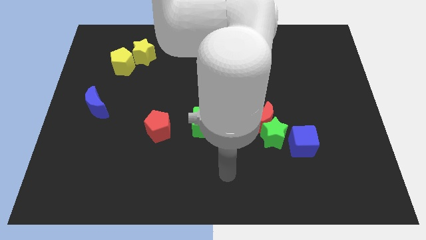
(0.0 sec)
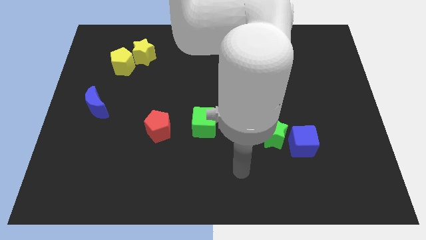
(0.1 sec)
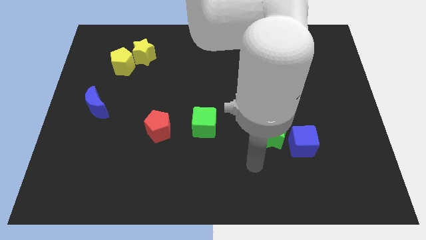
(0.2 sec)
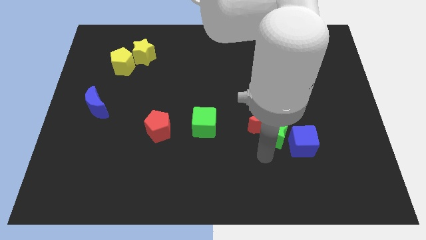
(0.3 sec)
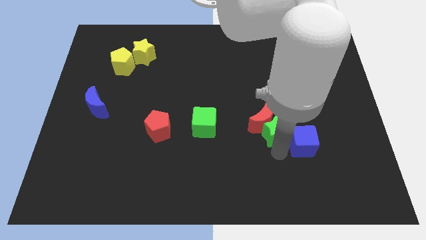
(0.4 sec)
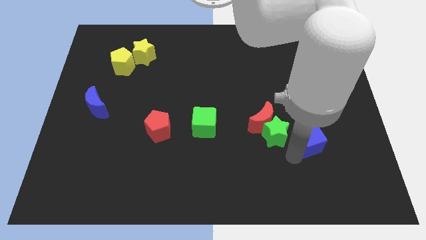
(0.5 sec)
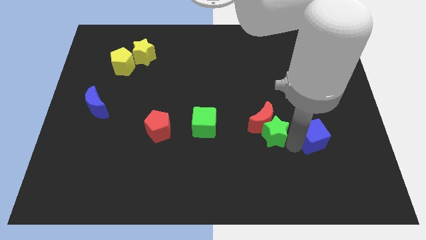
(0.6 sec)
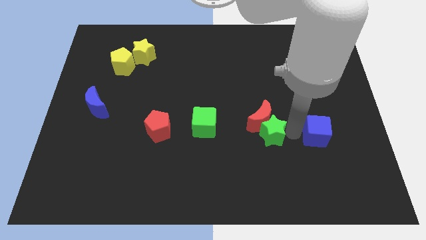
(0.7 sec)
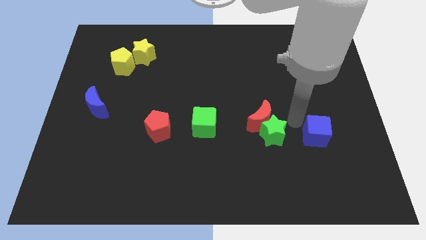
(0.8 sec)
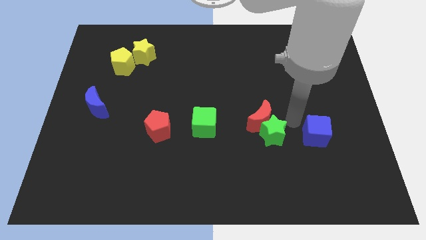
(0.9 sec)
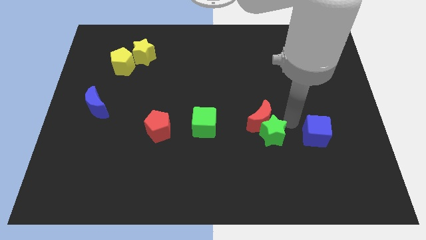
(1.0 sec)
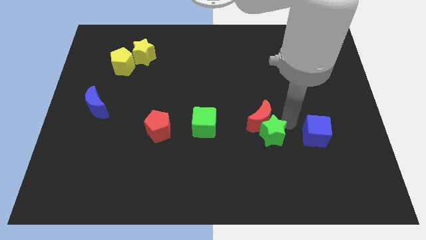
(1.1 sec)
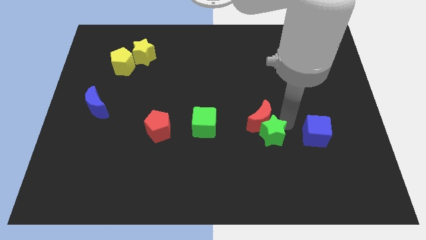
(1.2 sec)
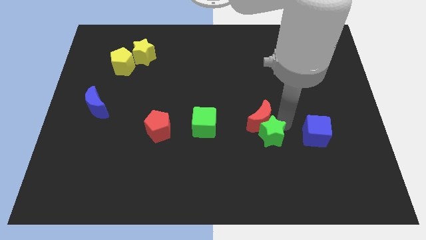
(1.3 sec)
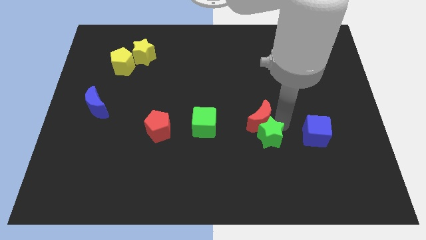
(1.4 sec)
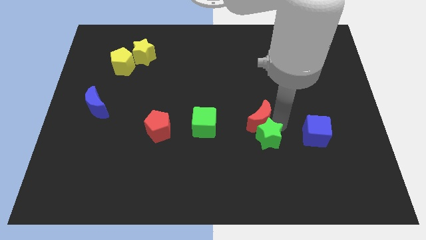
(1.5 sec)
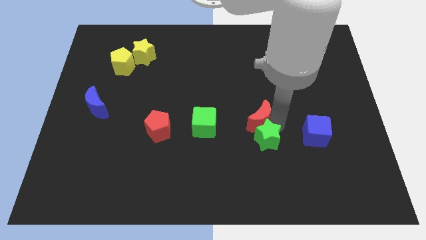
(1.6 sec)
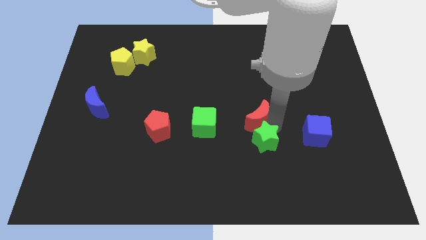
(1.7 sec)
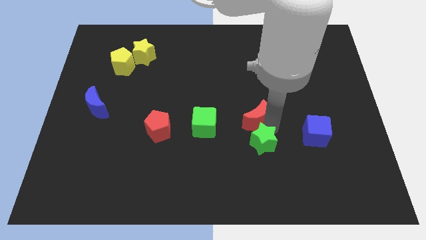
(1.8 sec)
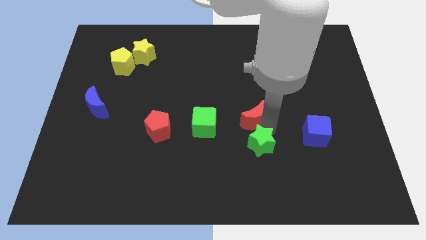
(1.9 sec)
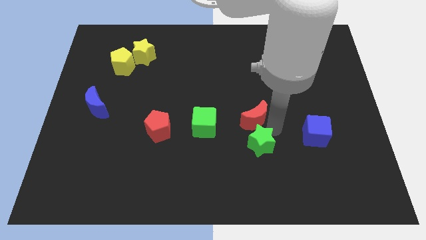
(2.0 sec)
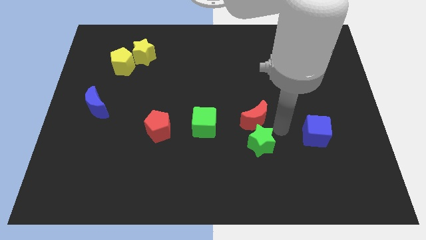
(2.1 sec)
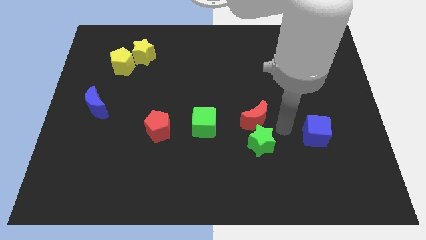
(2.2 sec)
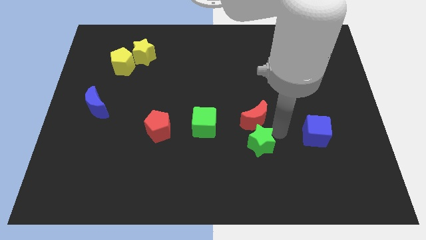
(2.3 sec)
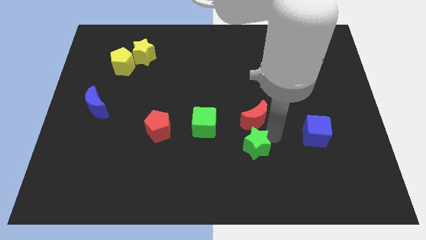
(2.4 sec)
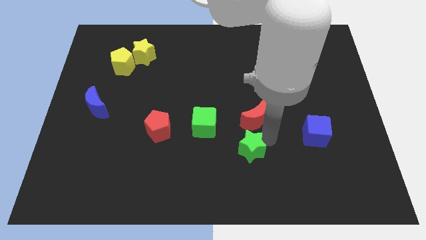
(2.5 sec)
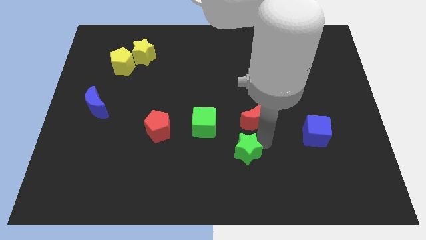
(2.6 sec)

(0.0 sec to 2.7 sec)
move the green star away from the red moon and blue cube

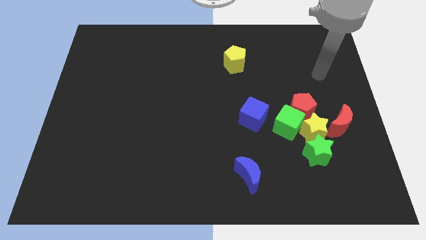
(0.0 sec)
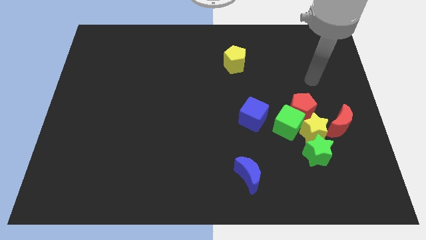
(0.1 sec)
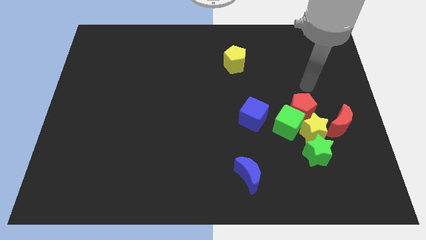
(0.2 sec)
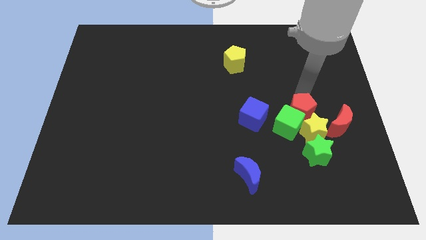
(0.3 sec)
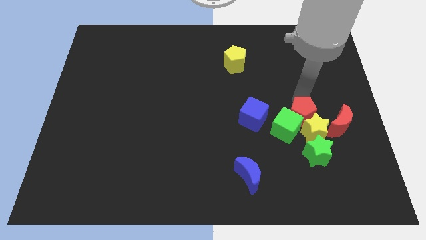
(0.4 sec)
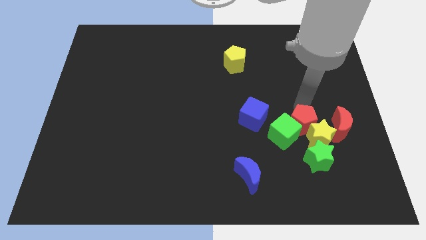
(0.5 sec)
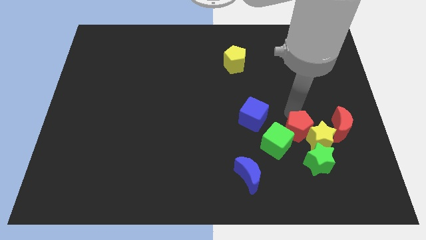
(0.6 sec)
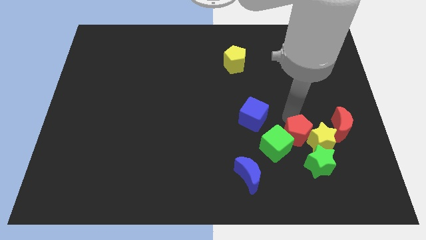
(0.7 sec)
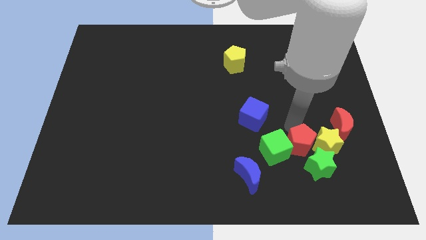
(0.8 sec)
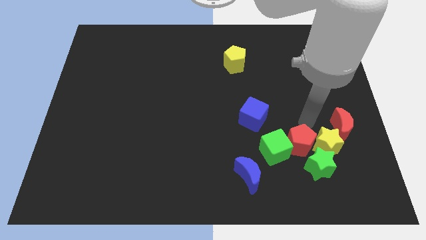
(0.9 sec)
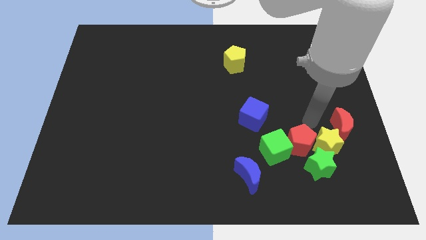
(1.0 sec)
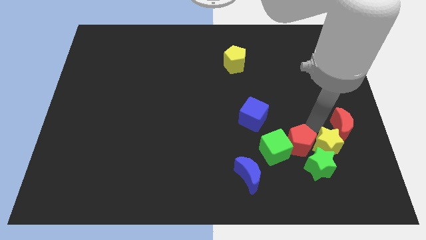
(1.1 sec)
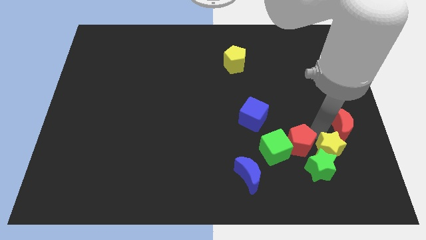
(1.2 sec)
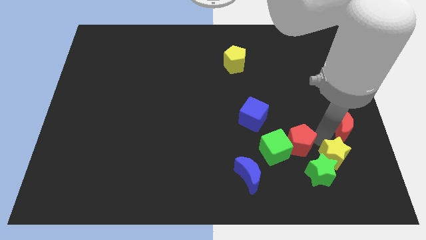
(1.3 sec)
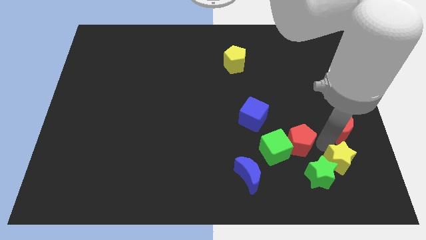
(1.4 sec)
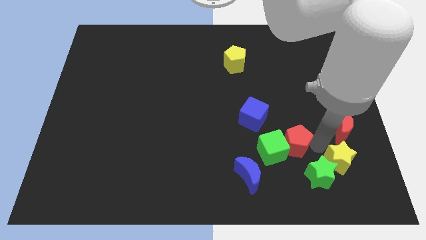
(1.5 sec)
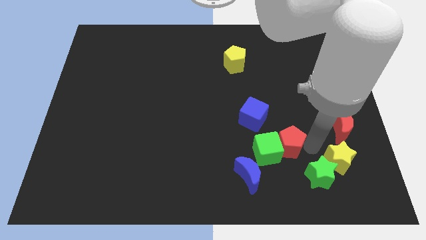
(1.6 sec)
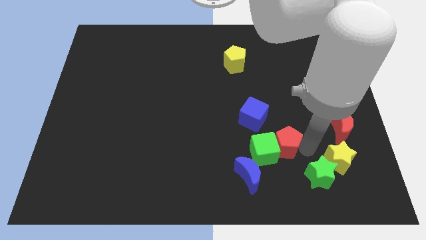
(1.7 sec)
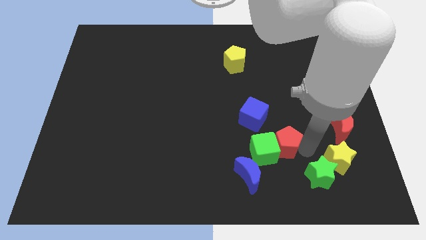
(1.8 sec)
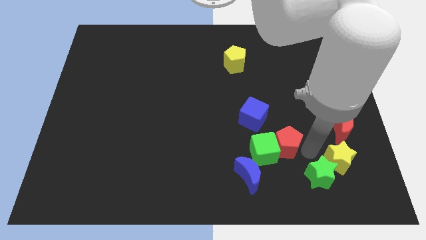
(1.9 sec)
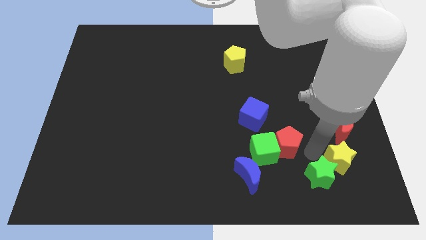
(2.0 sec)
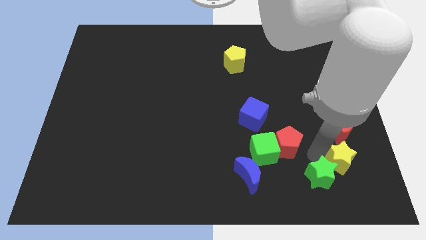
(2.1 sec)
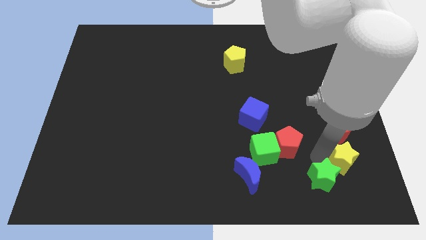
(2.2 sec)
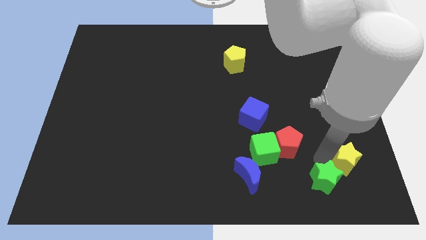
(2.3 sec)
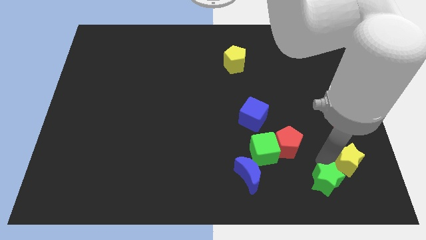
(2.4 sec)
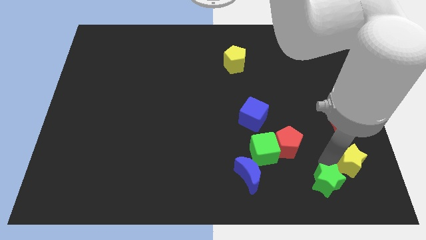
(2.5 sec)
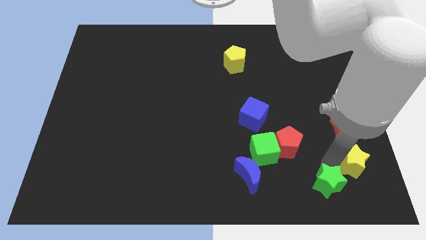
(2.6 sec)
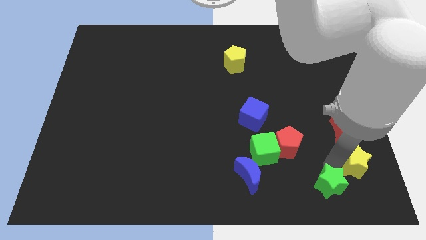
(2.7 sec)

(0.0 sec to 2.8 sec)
pull the yellow star apart from the group

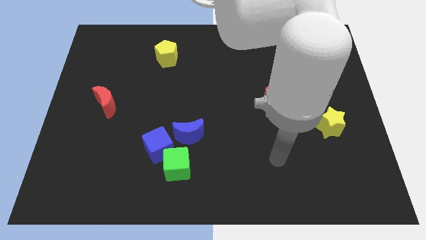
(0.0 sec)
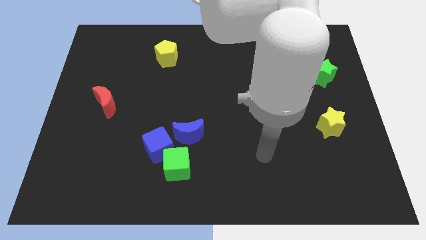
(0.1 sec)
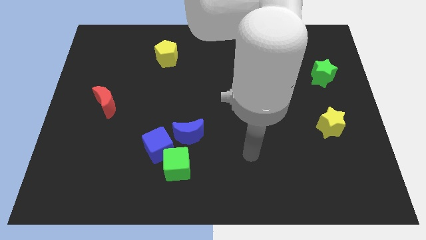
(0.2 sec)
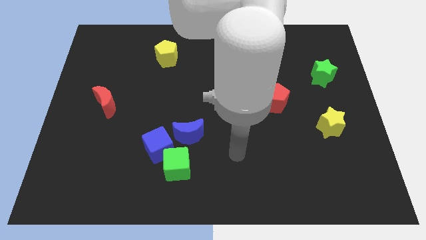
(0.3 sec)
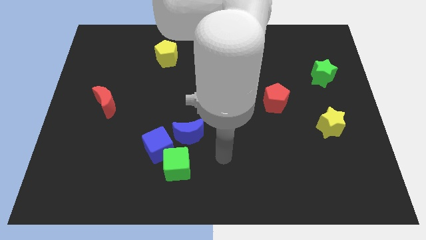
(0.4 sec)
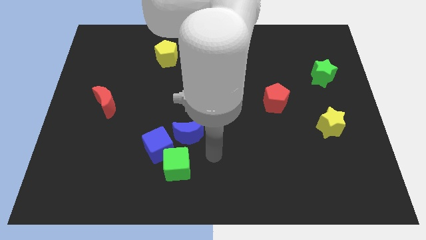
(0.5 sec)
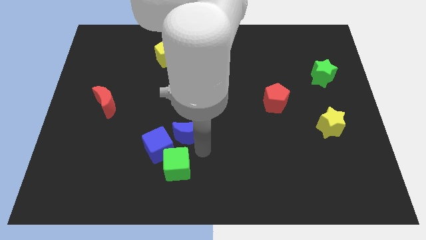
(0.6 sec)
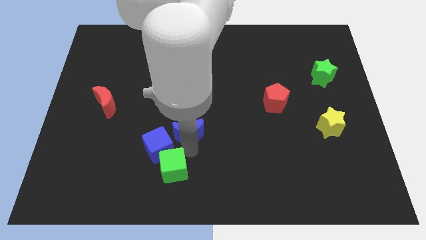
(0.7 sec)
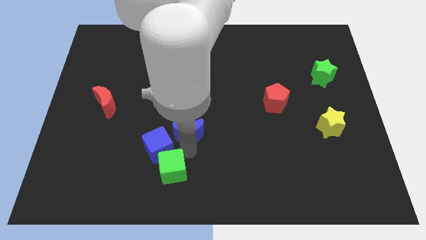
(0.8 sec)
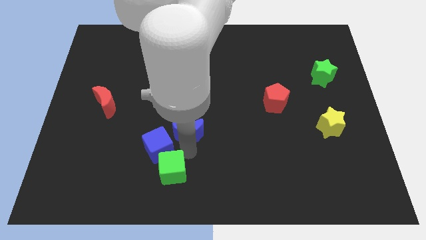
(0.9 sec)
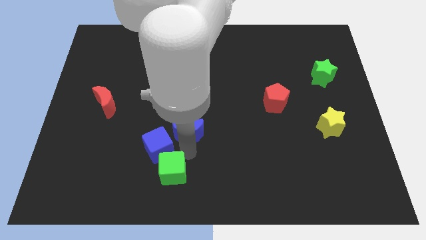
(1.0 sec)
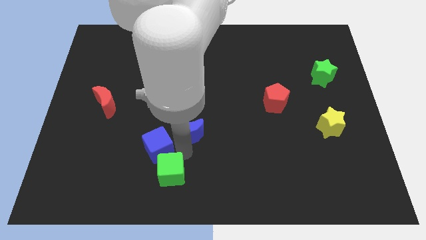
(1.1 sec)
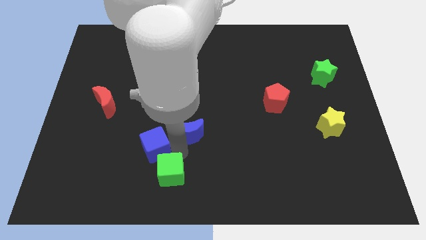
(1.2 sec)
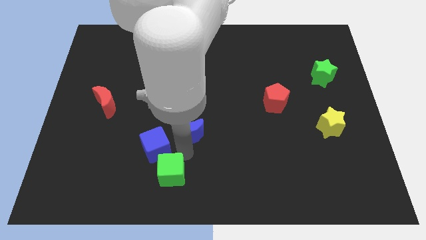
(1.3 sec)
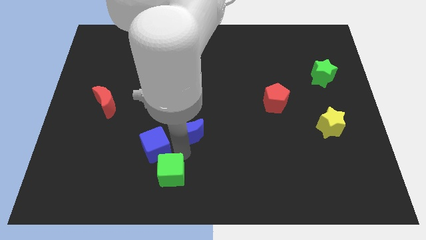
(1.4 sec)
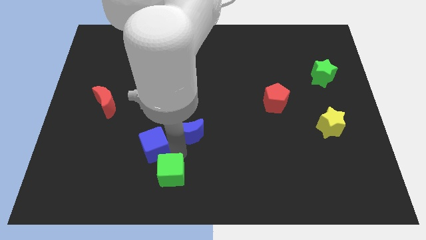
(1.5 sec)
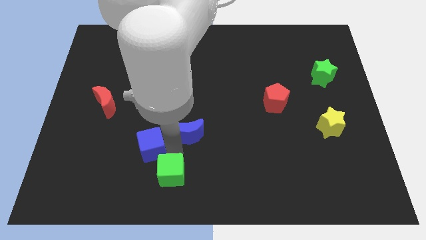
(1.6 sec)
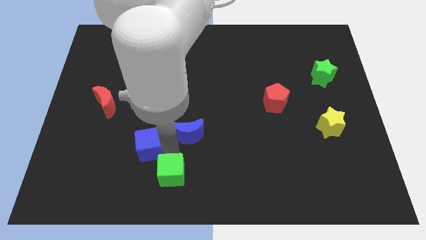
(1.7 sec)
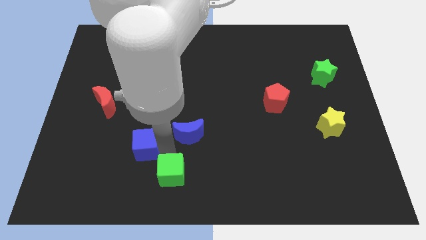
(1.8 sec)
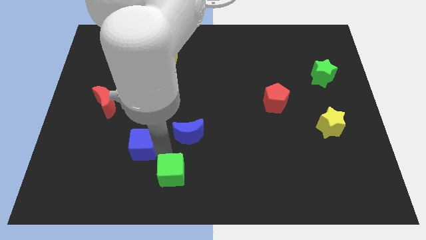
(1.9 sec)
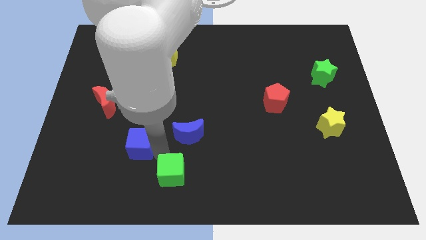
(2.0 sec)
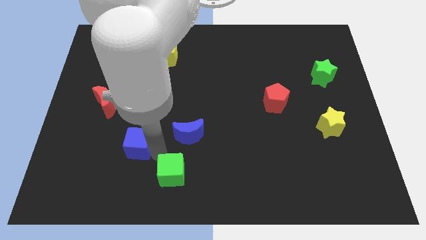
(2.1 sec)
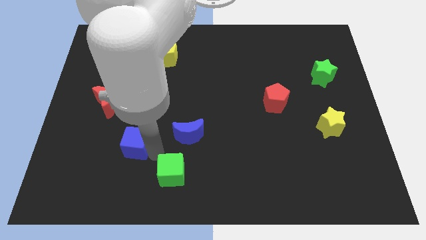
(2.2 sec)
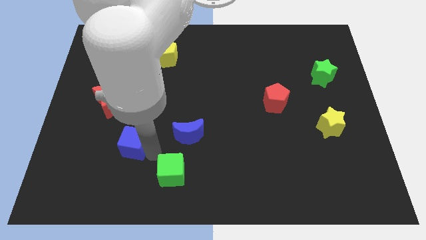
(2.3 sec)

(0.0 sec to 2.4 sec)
separate the blue cube from the green cube and blue moon

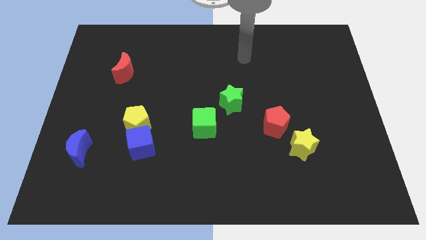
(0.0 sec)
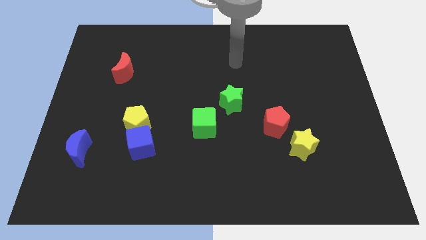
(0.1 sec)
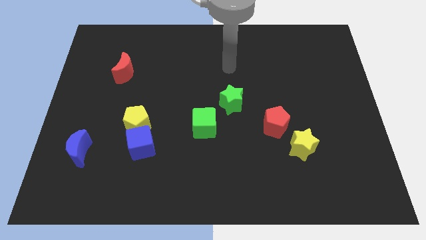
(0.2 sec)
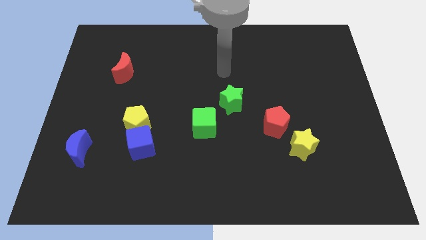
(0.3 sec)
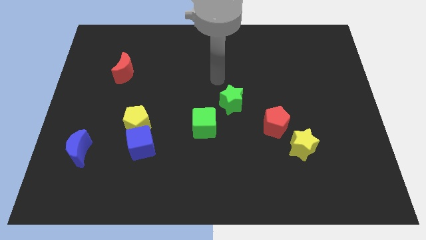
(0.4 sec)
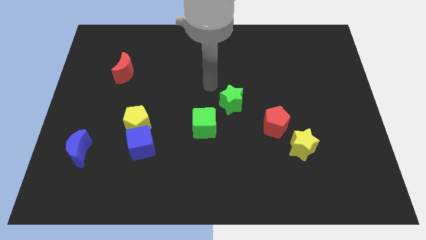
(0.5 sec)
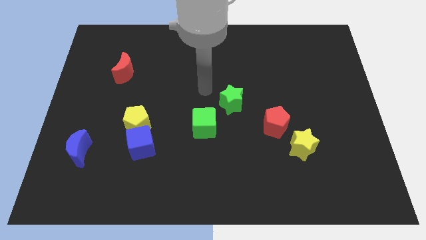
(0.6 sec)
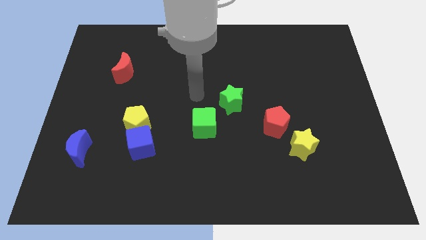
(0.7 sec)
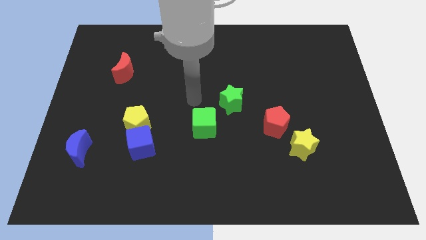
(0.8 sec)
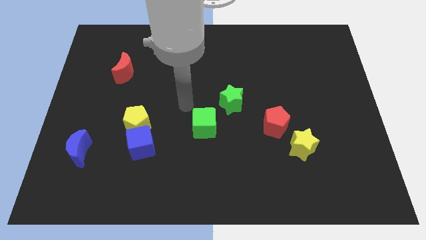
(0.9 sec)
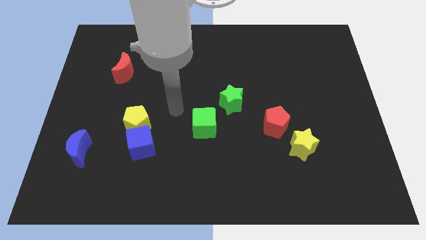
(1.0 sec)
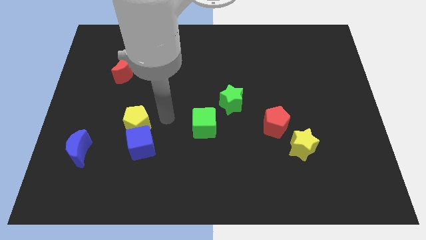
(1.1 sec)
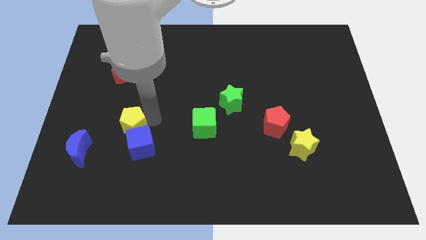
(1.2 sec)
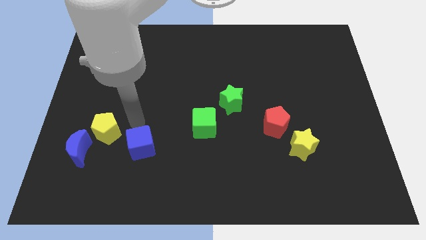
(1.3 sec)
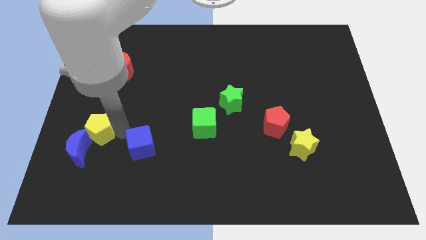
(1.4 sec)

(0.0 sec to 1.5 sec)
separate the blue cube from the yellow pentagon
